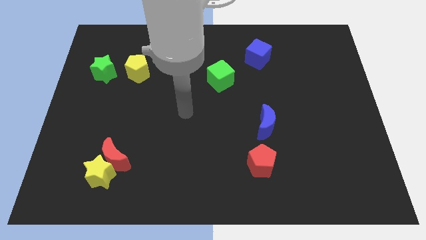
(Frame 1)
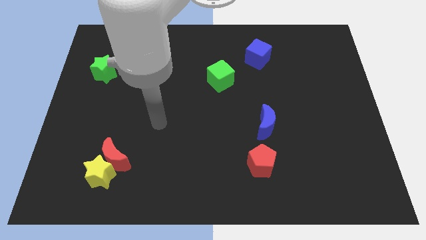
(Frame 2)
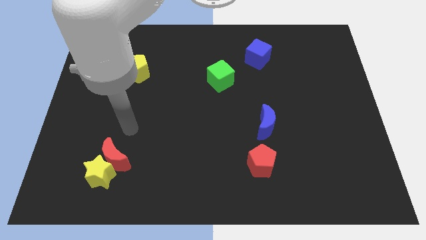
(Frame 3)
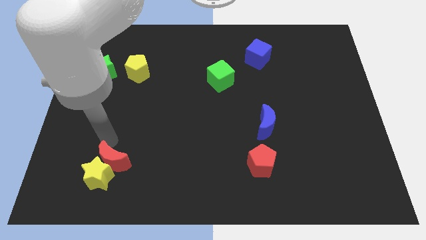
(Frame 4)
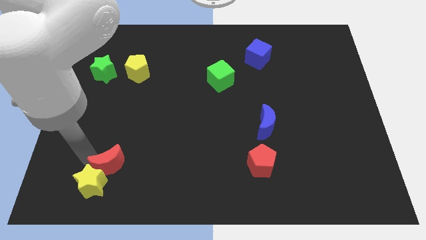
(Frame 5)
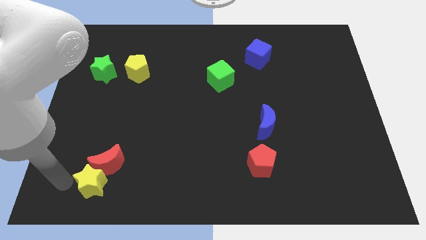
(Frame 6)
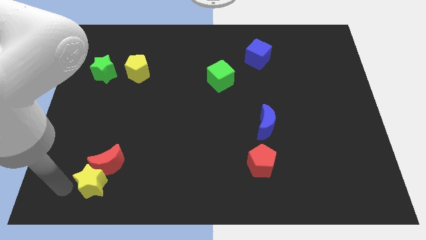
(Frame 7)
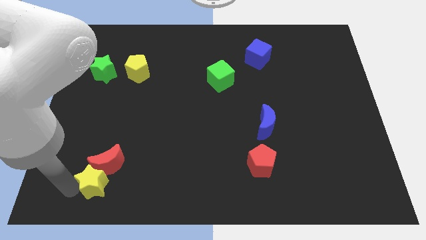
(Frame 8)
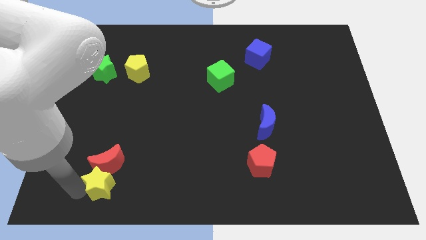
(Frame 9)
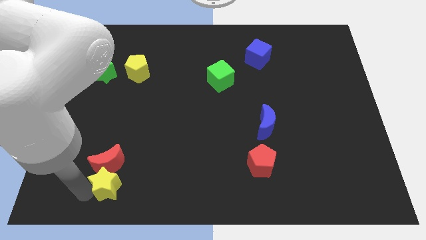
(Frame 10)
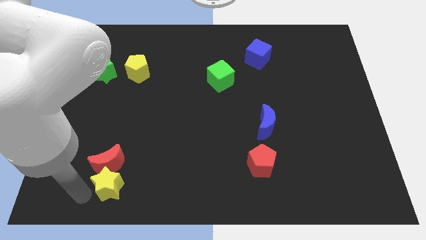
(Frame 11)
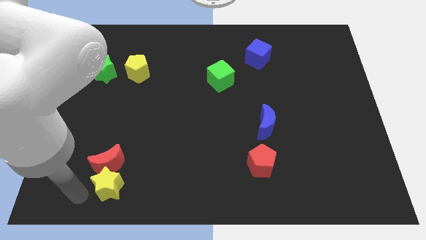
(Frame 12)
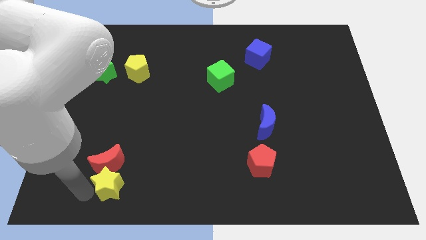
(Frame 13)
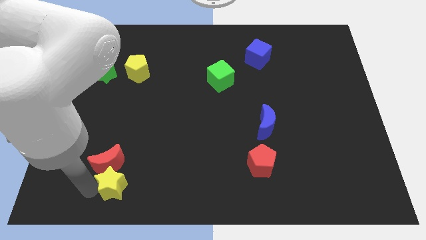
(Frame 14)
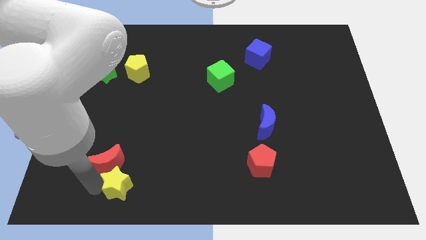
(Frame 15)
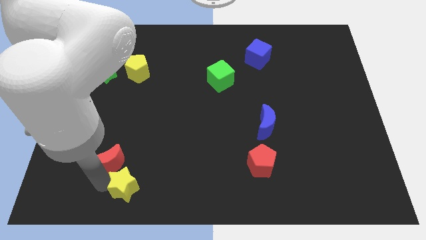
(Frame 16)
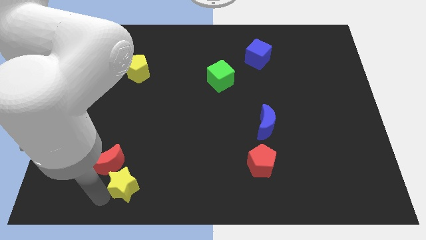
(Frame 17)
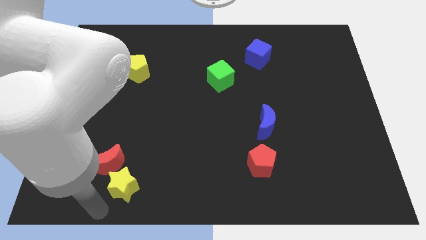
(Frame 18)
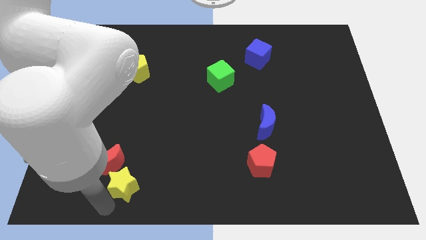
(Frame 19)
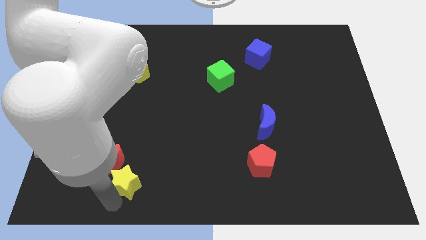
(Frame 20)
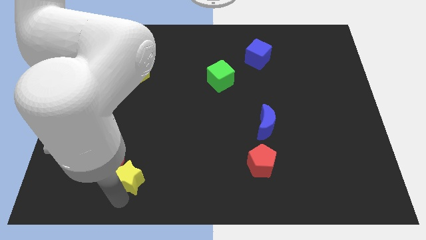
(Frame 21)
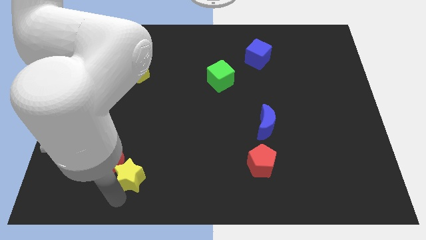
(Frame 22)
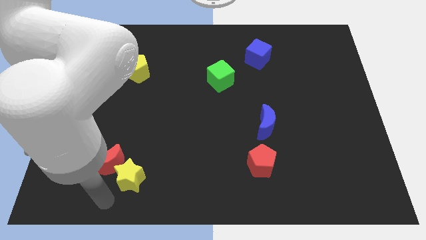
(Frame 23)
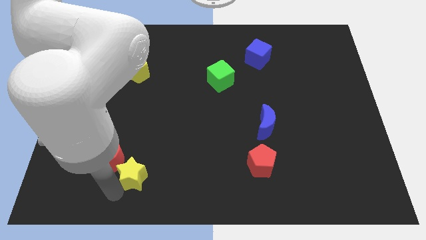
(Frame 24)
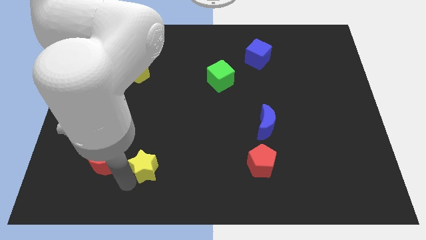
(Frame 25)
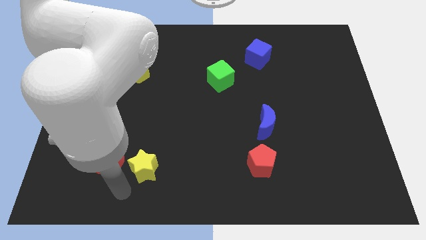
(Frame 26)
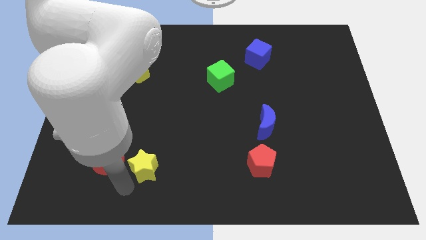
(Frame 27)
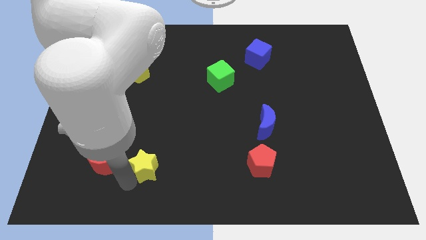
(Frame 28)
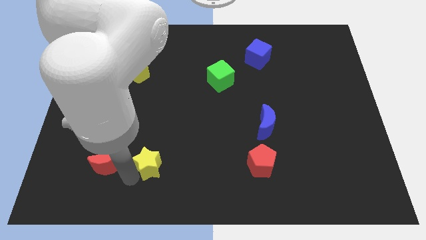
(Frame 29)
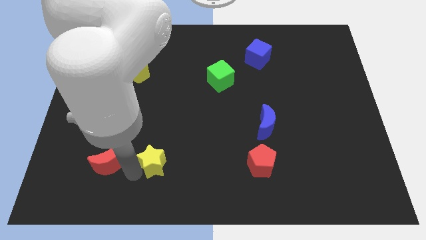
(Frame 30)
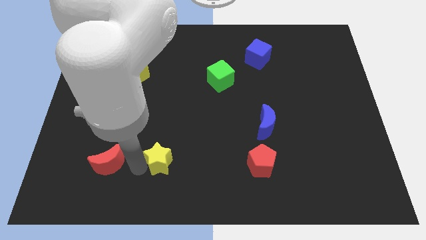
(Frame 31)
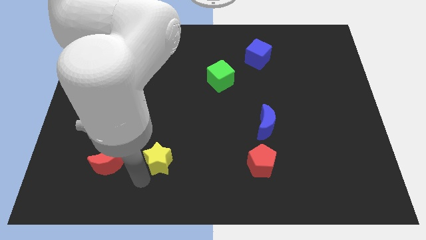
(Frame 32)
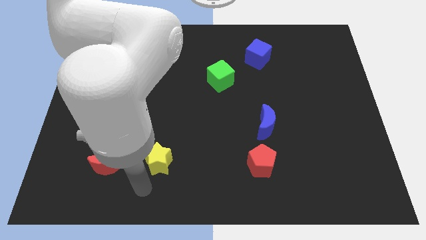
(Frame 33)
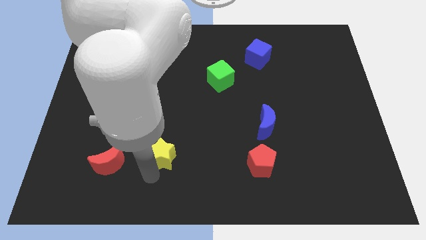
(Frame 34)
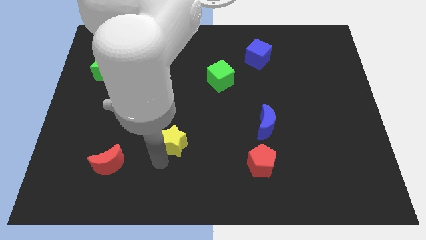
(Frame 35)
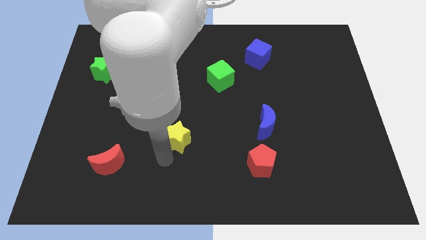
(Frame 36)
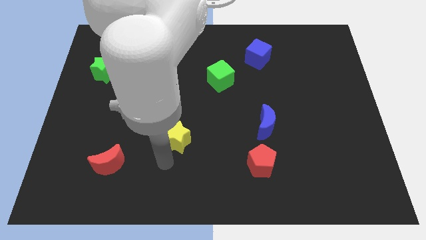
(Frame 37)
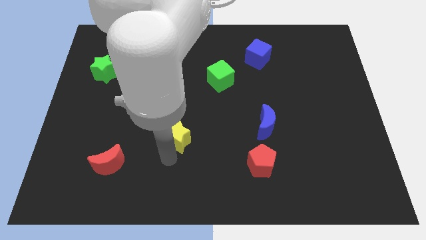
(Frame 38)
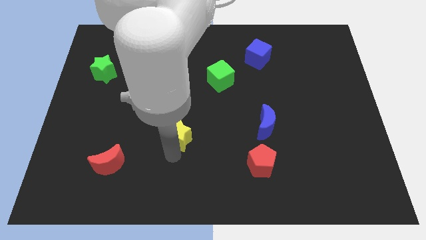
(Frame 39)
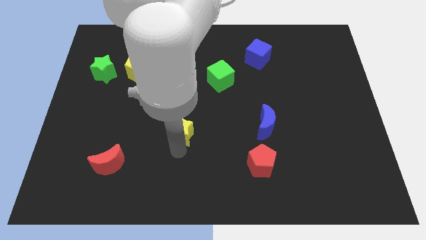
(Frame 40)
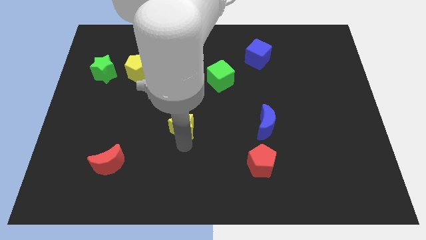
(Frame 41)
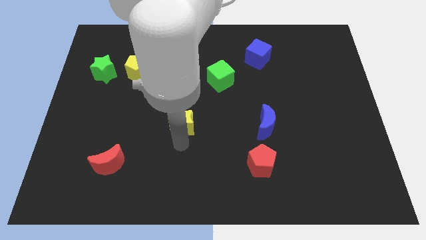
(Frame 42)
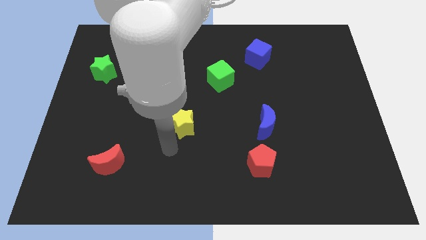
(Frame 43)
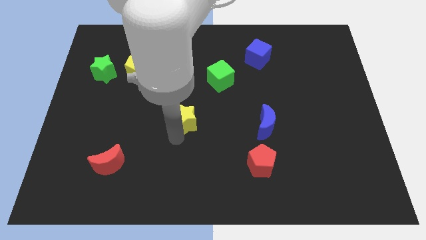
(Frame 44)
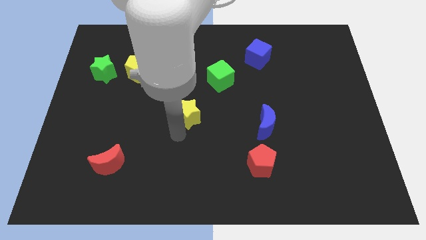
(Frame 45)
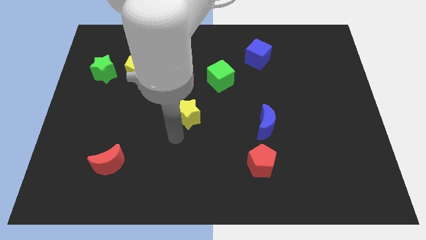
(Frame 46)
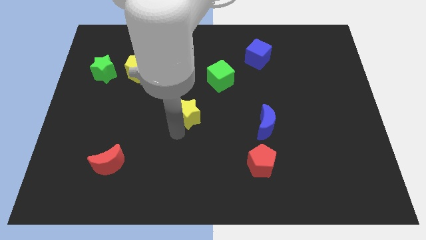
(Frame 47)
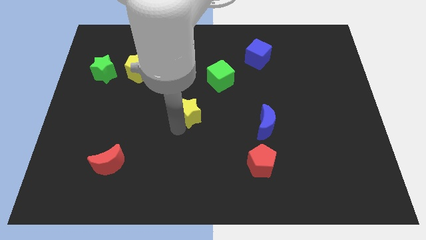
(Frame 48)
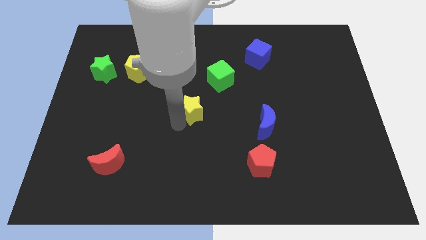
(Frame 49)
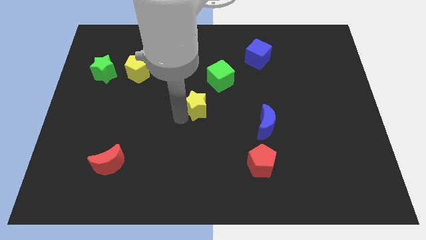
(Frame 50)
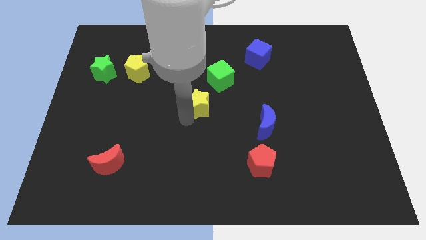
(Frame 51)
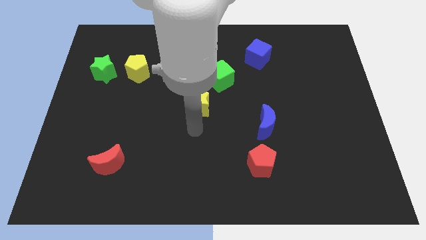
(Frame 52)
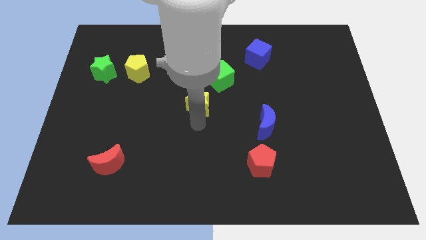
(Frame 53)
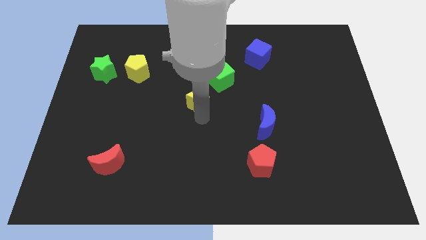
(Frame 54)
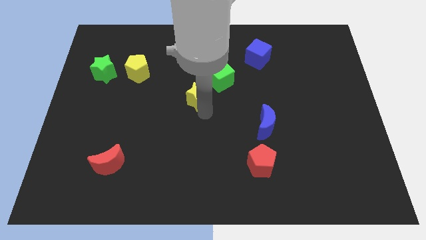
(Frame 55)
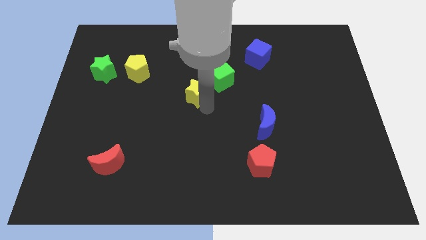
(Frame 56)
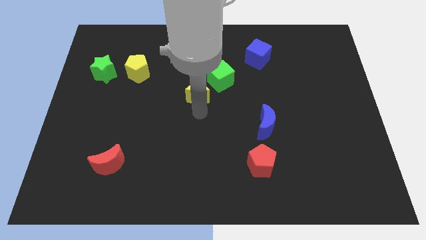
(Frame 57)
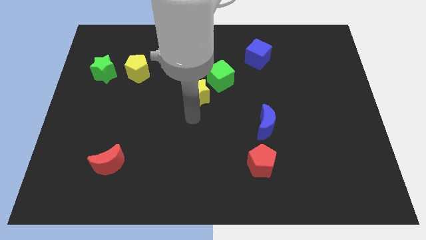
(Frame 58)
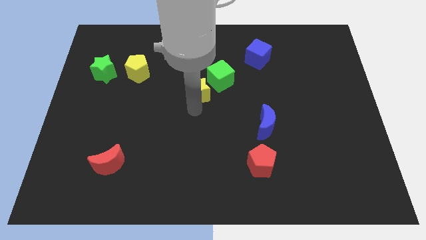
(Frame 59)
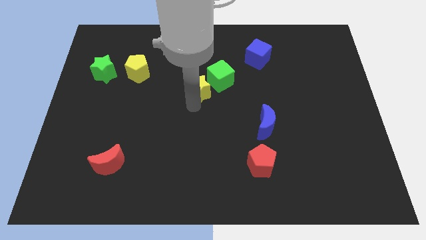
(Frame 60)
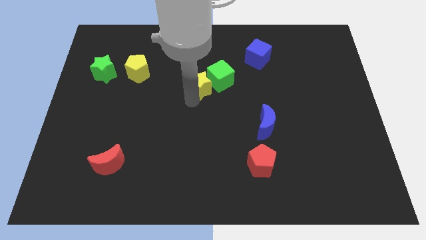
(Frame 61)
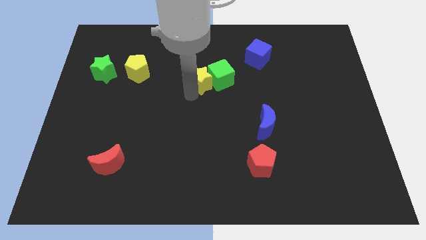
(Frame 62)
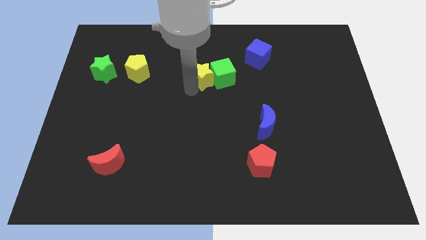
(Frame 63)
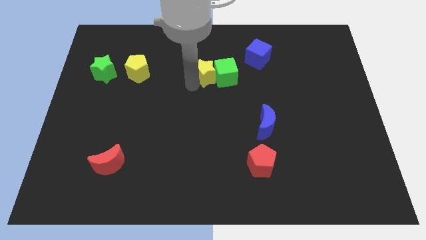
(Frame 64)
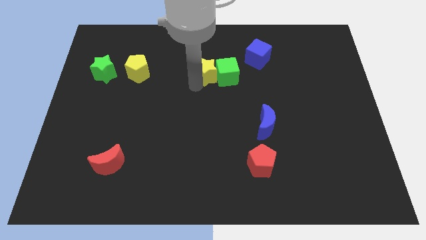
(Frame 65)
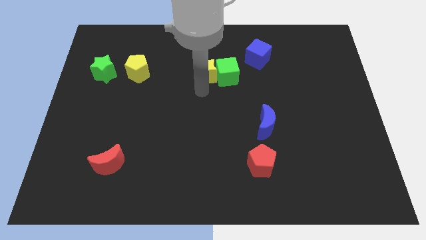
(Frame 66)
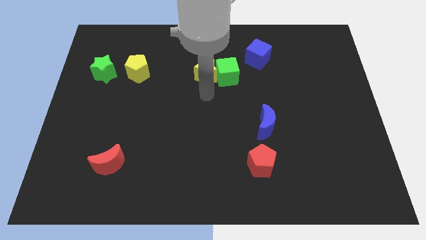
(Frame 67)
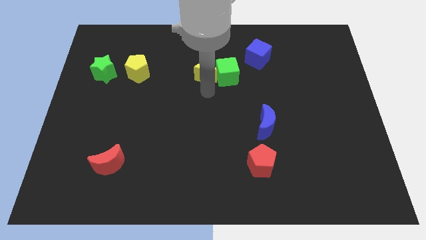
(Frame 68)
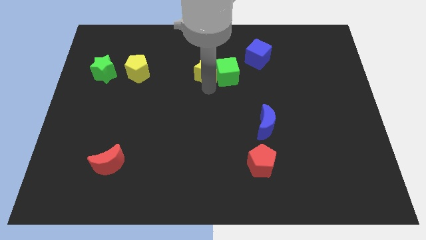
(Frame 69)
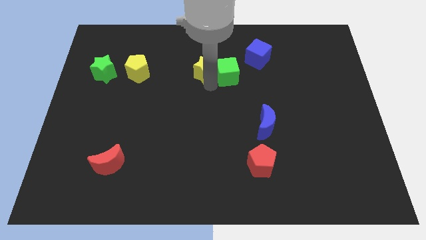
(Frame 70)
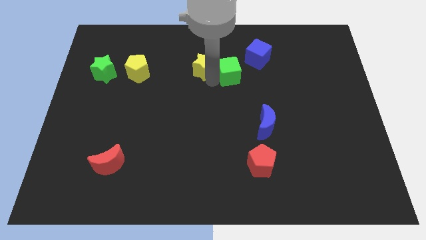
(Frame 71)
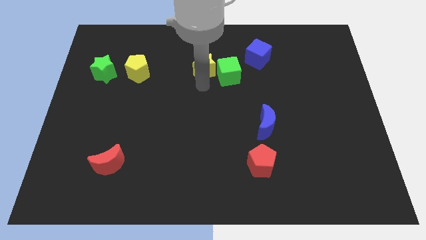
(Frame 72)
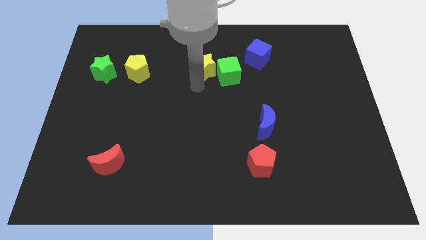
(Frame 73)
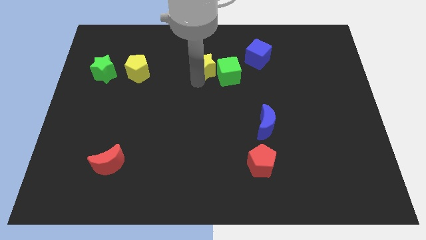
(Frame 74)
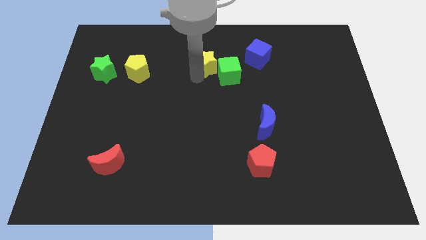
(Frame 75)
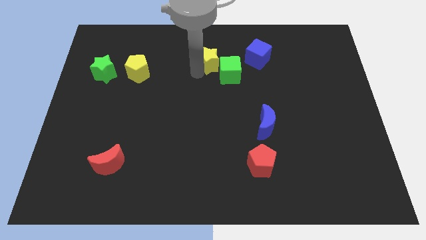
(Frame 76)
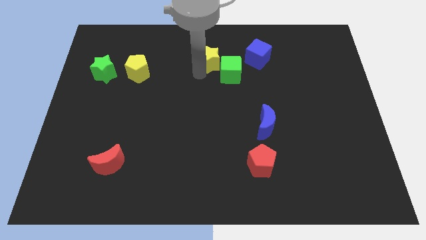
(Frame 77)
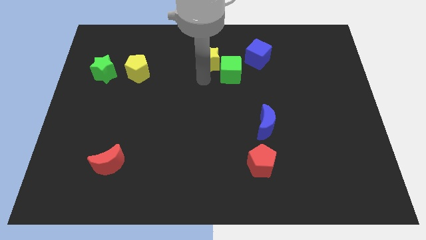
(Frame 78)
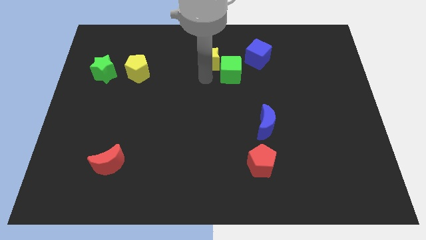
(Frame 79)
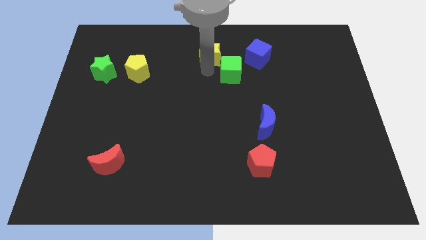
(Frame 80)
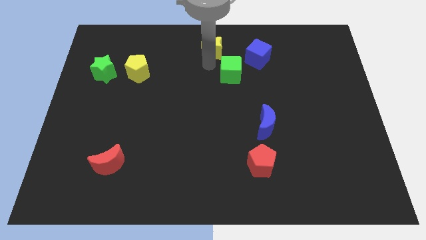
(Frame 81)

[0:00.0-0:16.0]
move the yellow star to the towards your base
